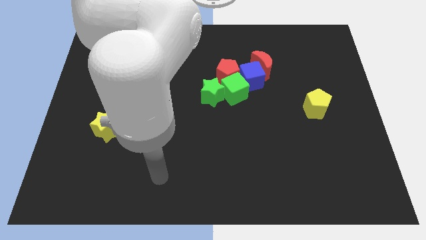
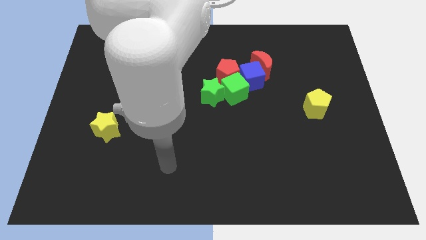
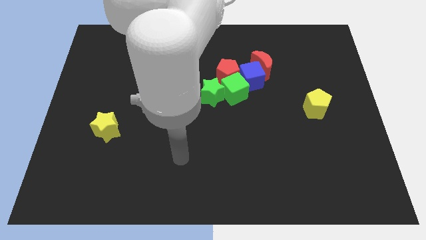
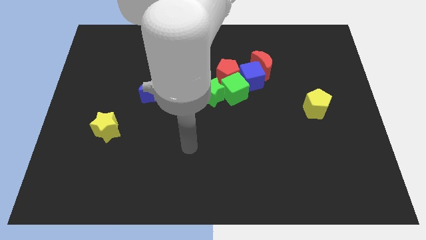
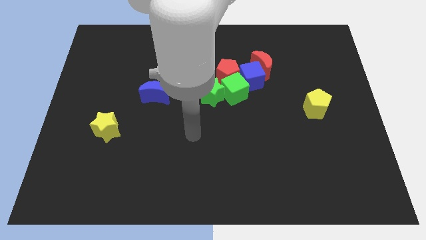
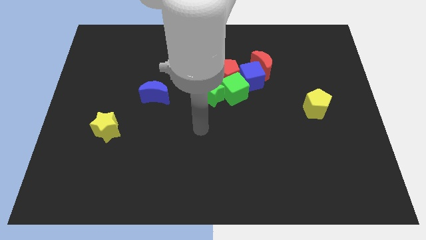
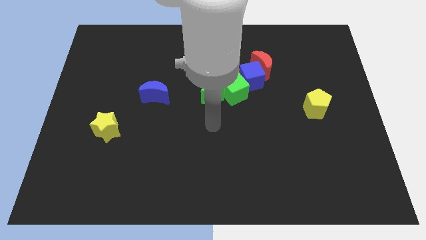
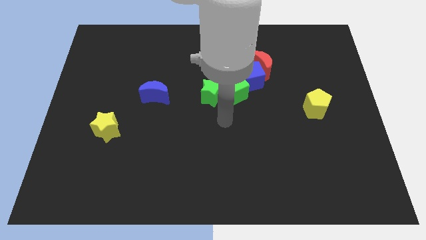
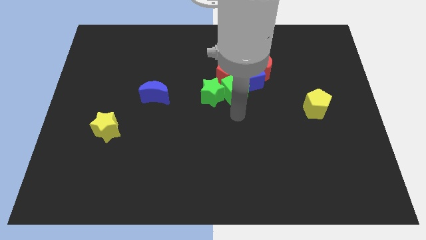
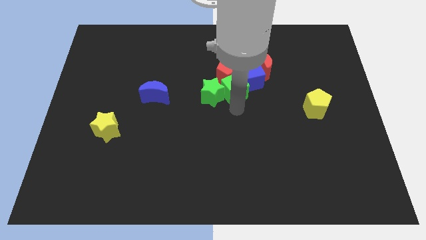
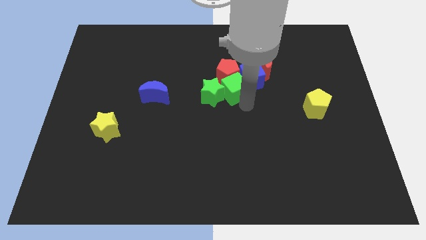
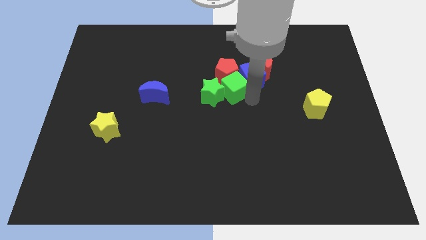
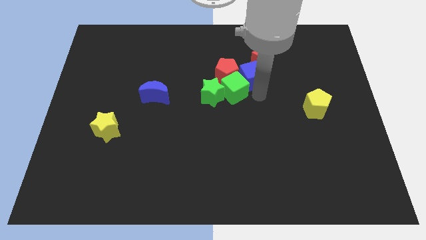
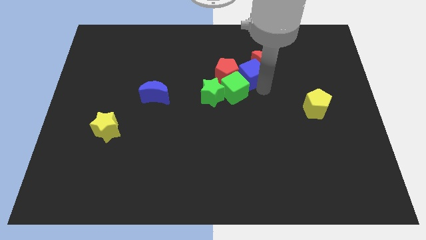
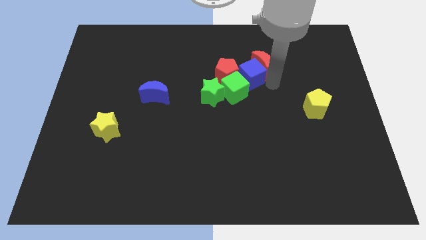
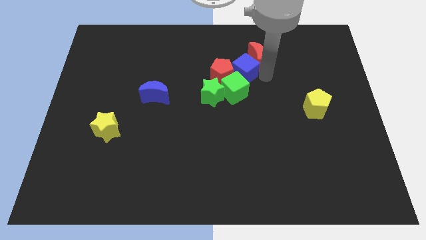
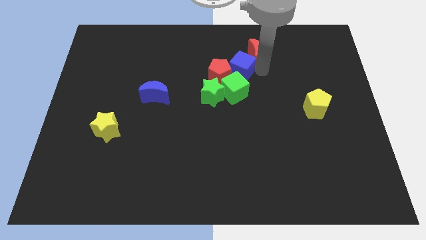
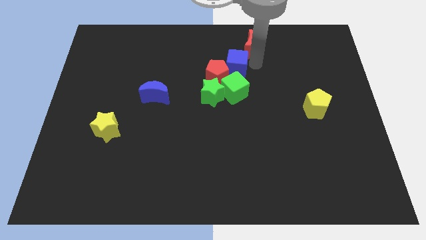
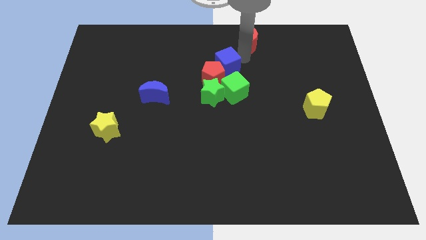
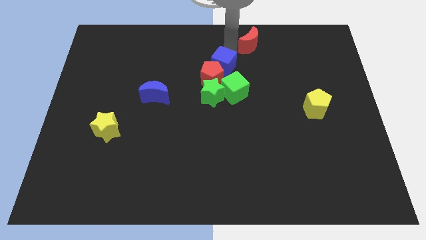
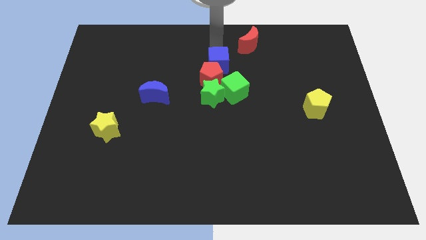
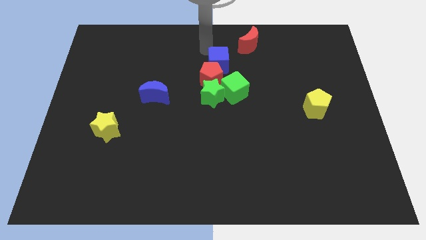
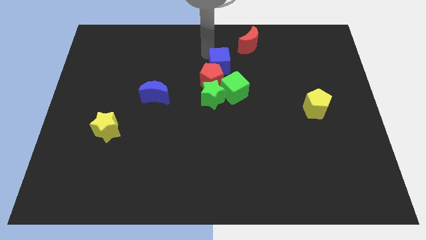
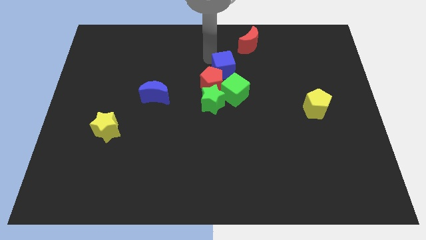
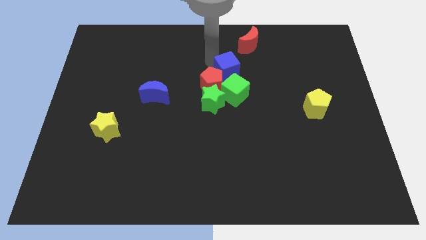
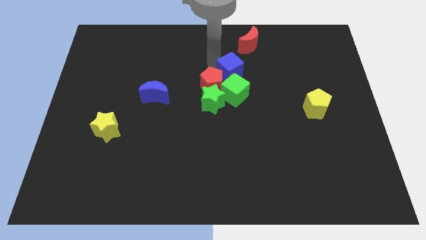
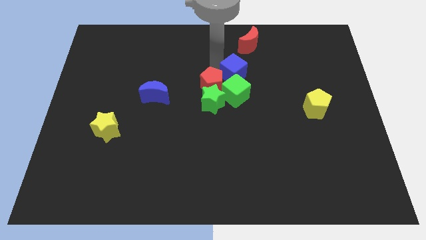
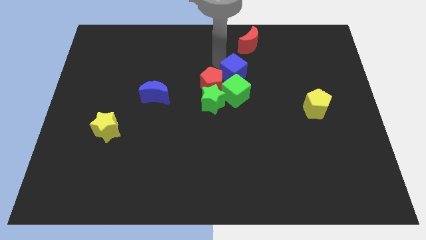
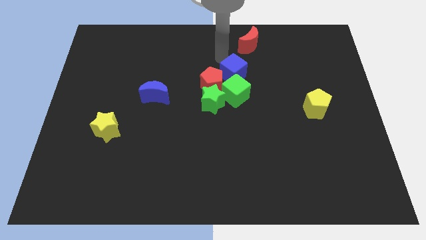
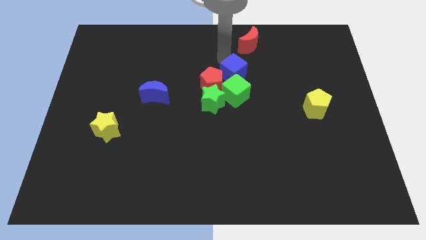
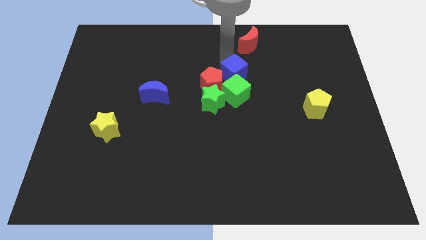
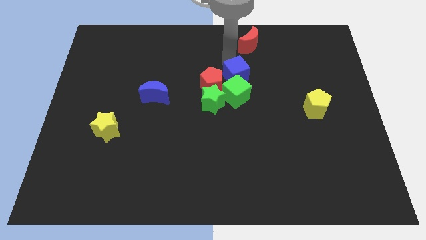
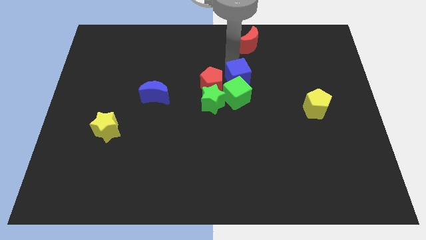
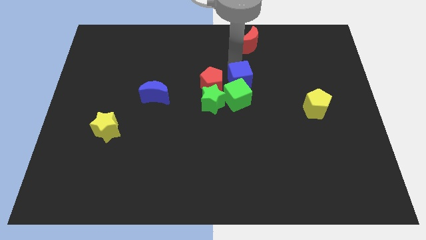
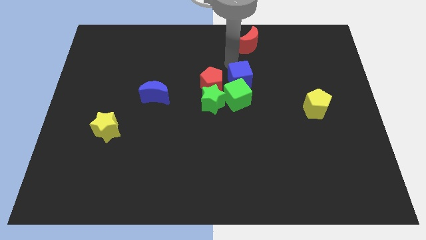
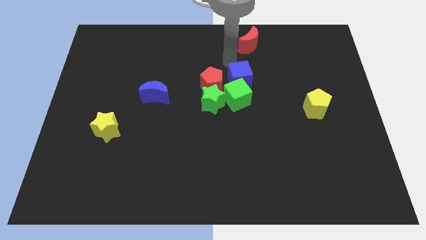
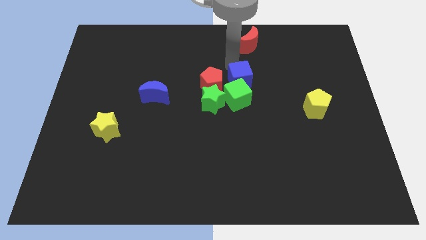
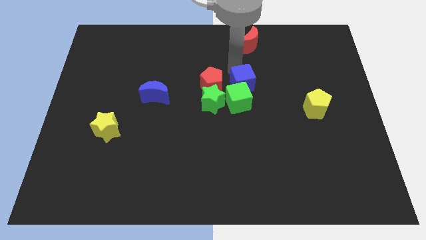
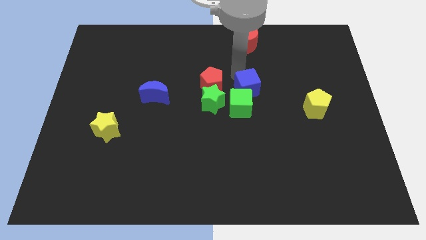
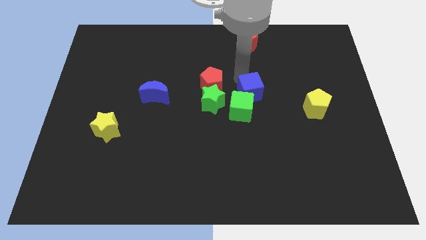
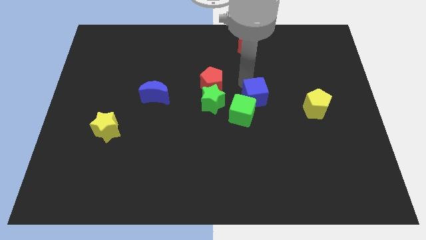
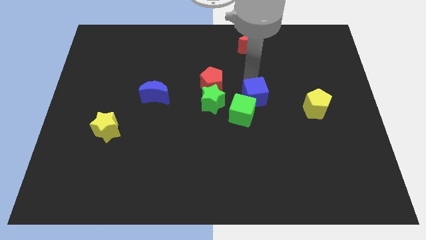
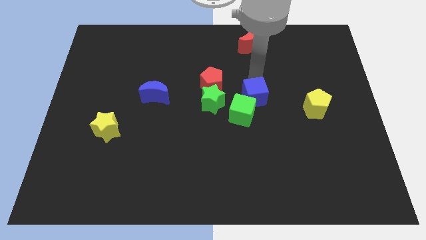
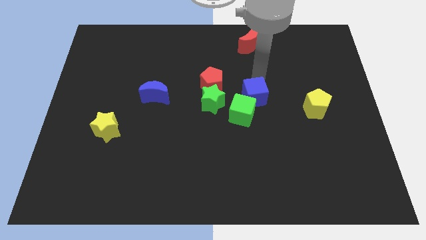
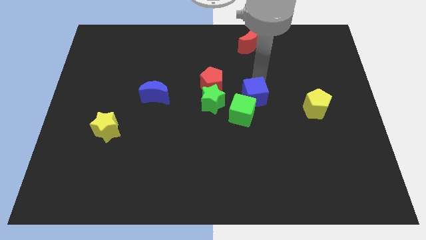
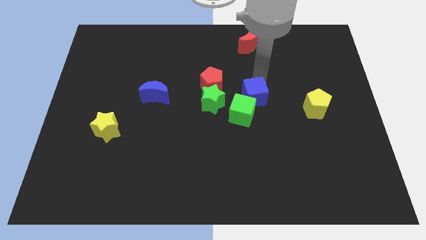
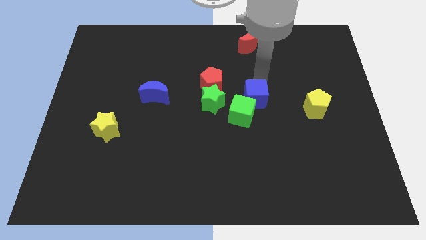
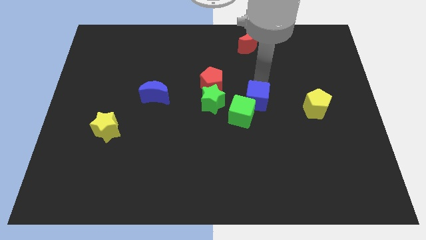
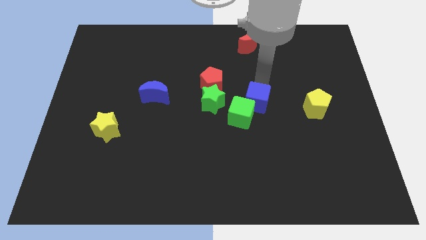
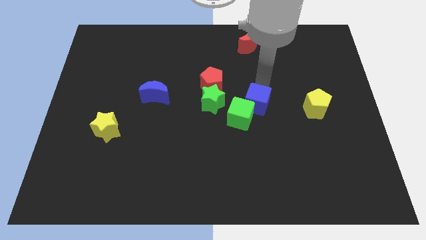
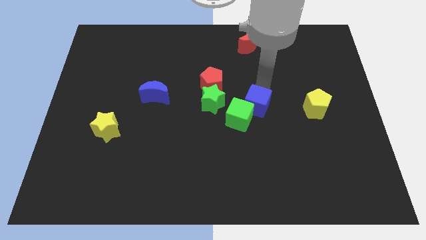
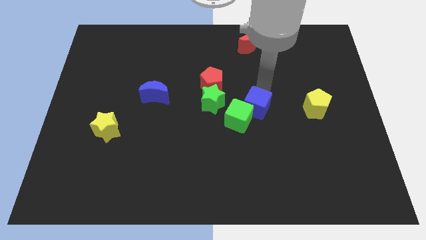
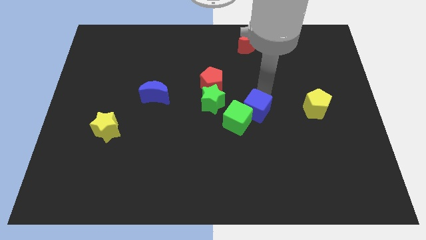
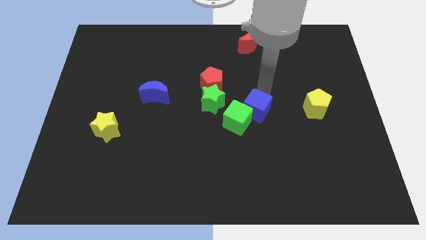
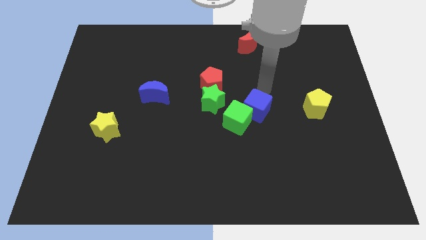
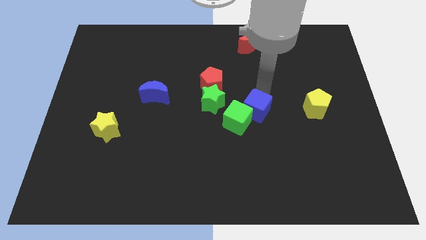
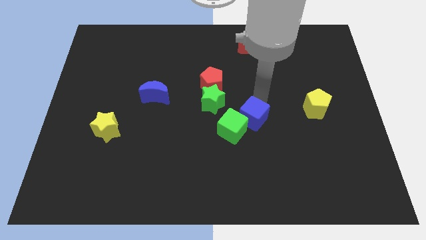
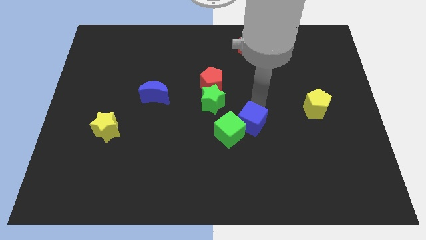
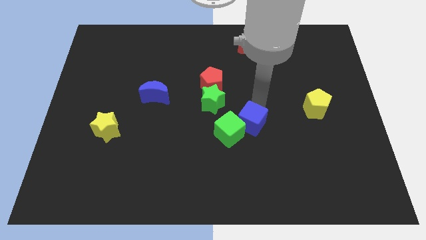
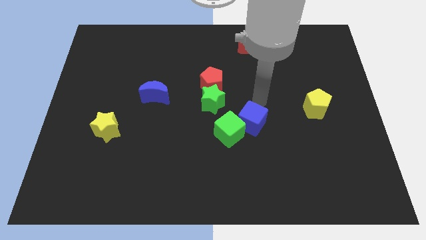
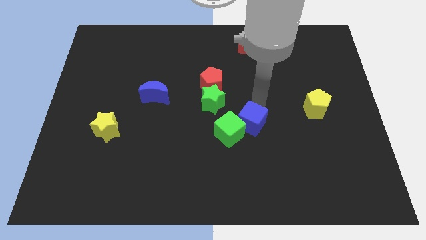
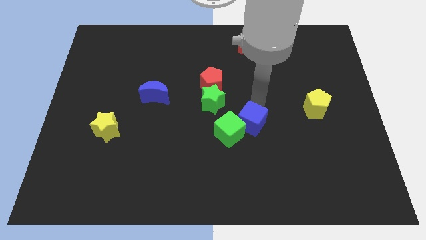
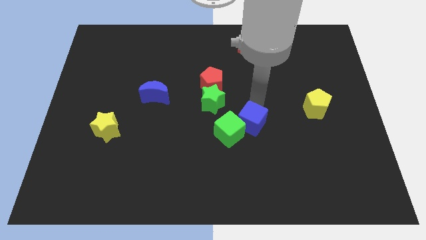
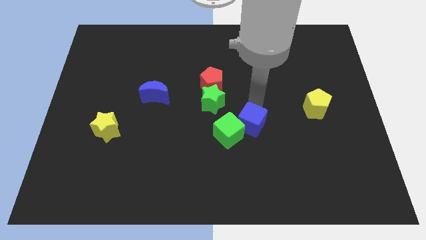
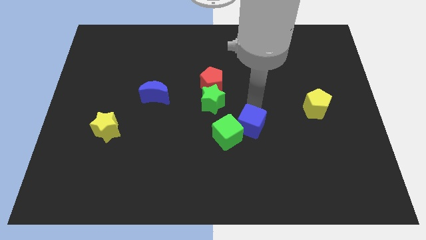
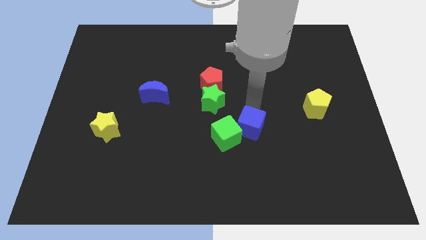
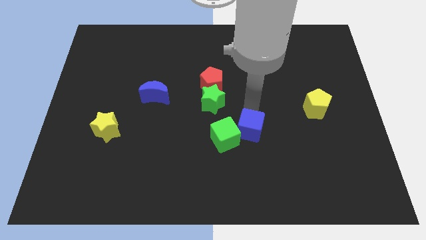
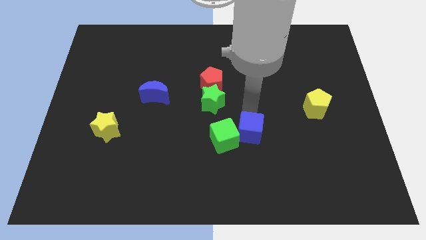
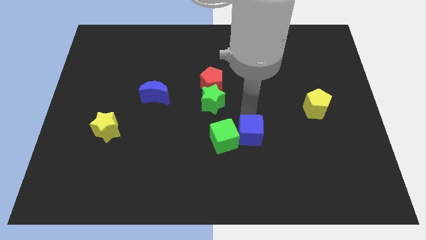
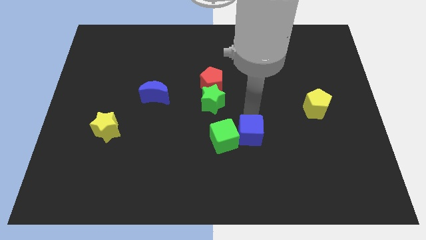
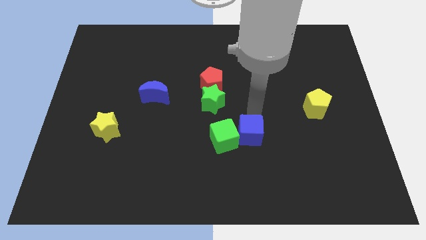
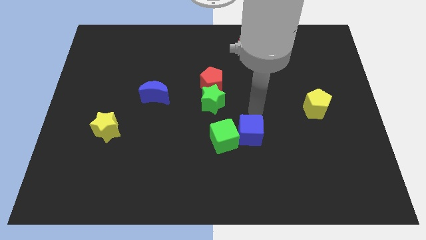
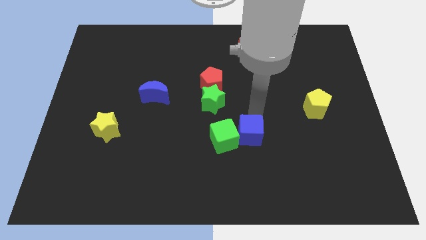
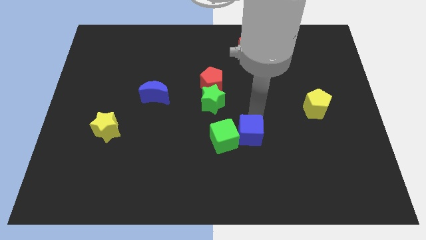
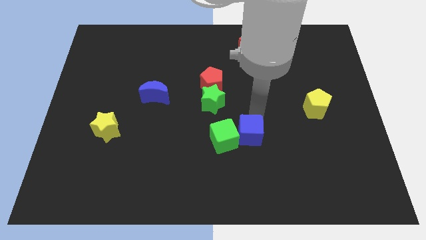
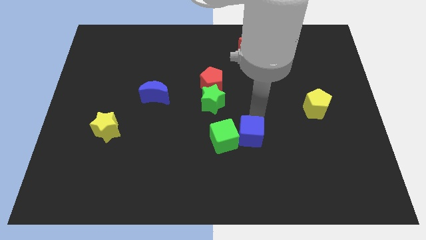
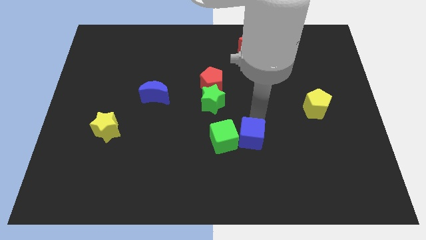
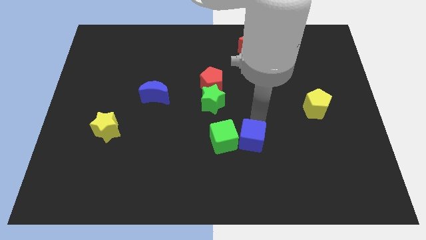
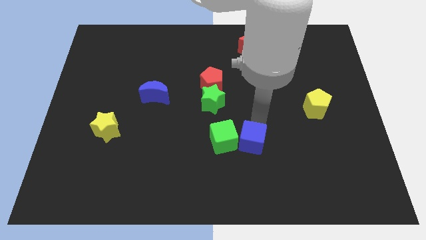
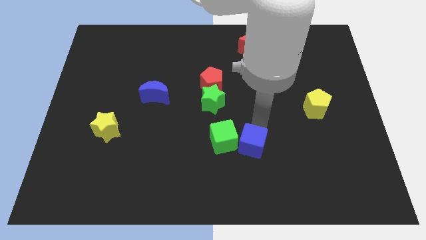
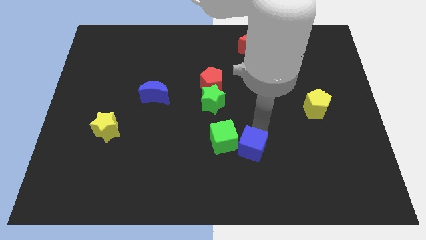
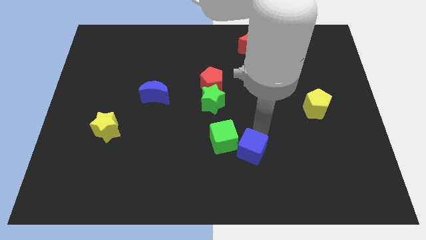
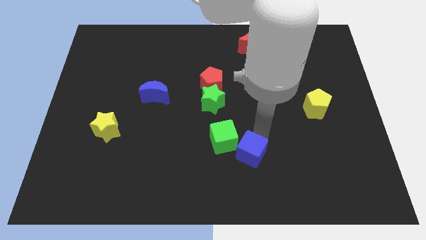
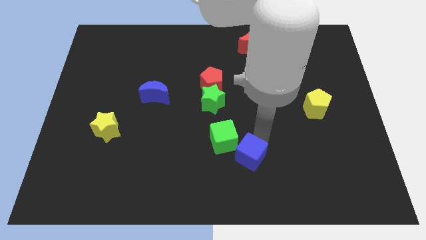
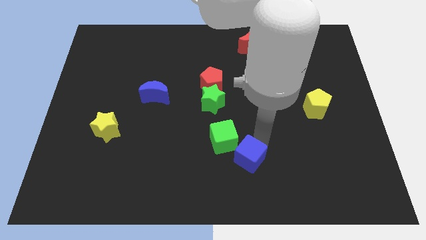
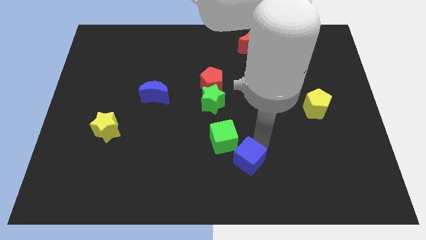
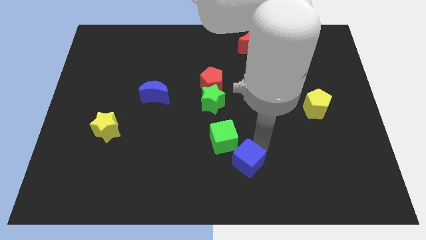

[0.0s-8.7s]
move the blue cube to the bottom side
